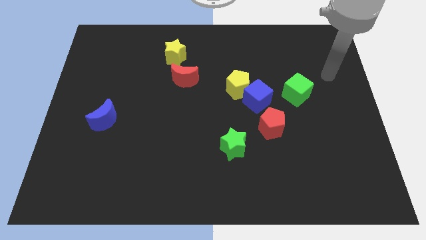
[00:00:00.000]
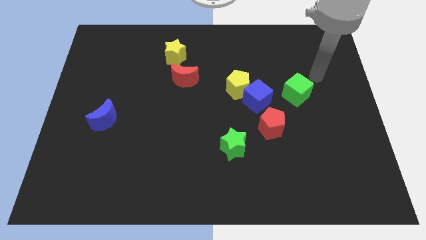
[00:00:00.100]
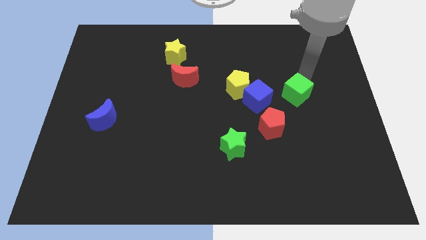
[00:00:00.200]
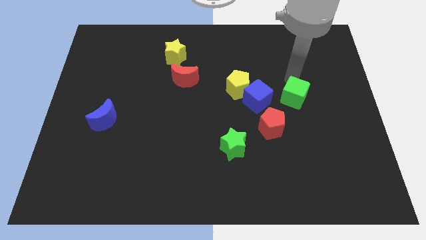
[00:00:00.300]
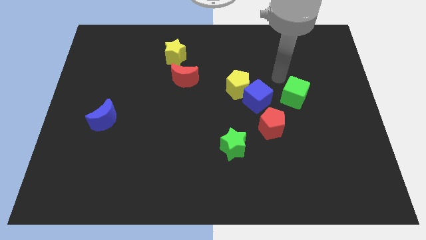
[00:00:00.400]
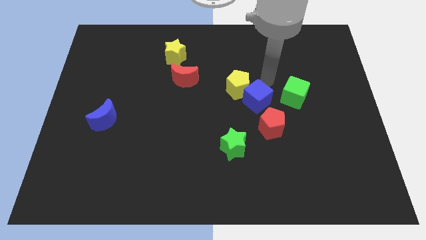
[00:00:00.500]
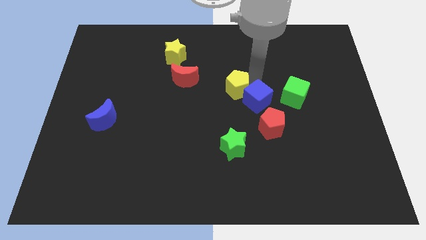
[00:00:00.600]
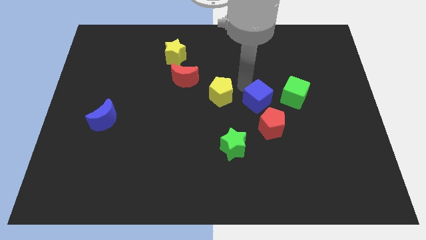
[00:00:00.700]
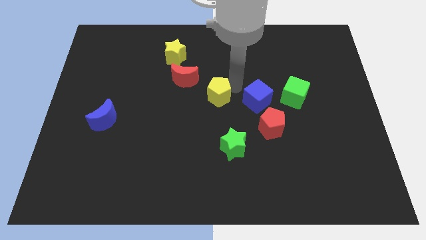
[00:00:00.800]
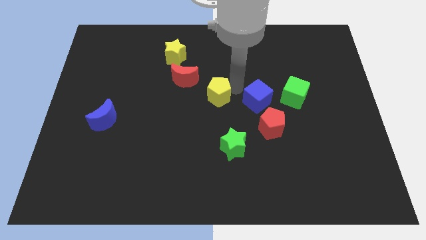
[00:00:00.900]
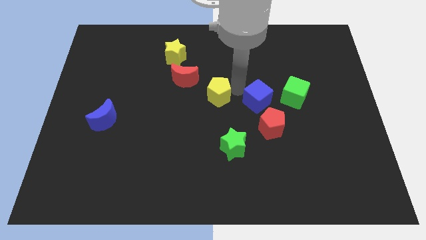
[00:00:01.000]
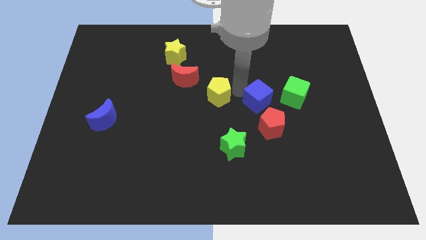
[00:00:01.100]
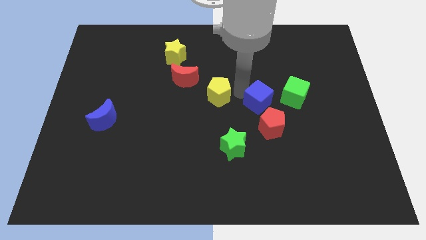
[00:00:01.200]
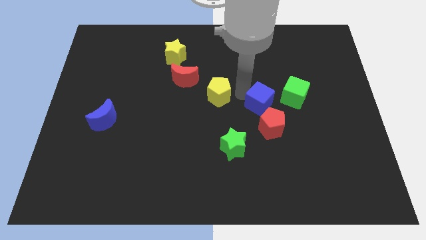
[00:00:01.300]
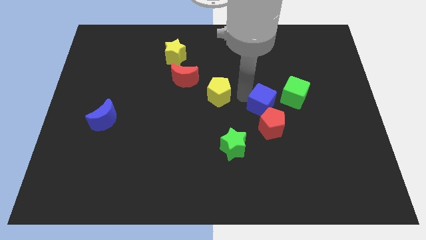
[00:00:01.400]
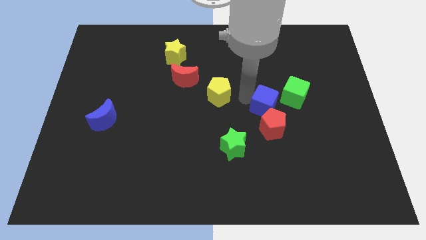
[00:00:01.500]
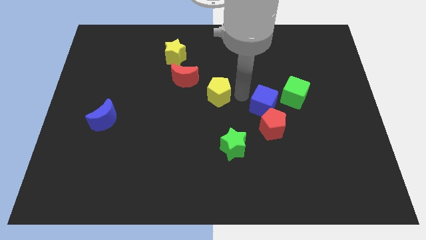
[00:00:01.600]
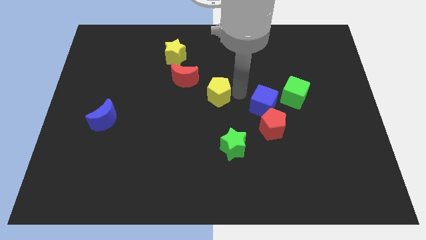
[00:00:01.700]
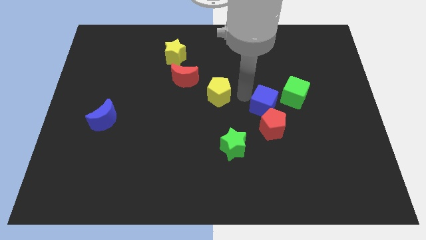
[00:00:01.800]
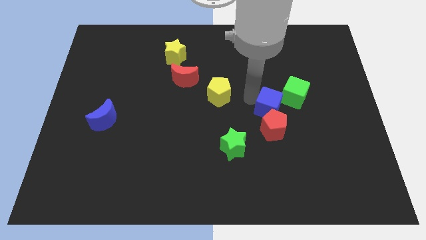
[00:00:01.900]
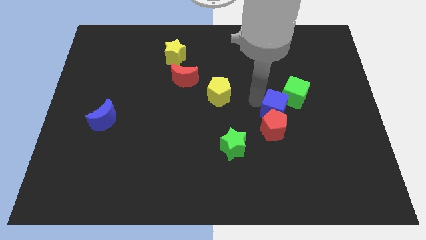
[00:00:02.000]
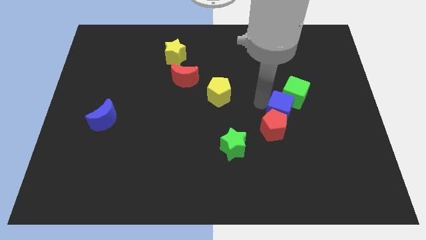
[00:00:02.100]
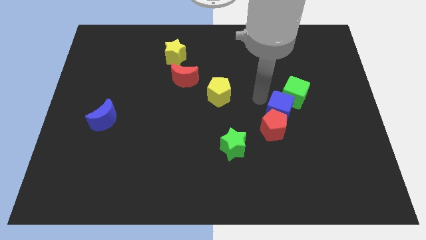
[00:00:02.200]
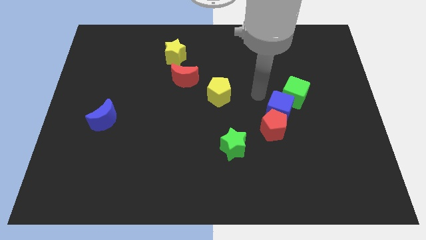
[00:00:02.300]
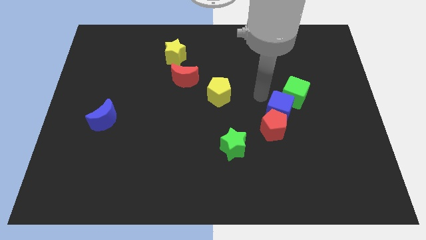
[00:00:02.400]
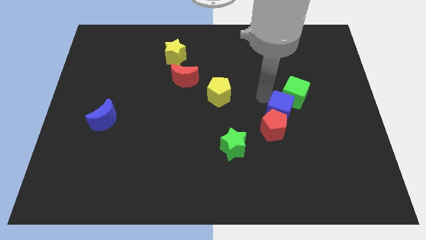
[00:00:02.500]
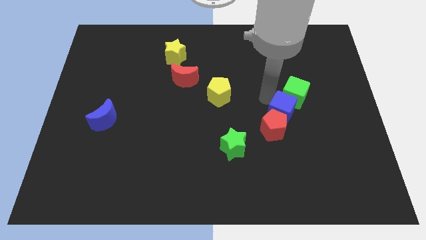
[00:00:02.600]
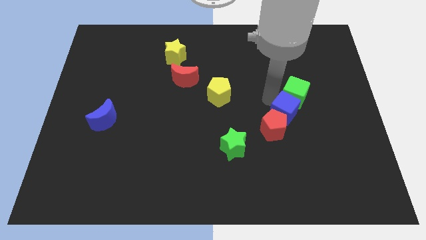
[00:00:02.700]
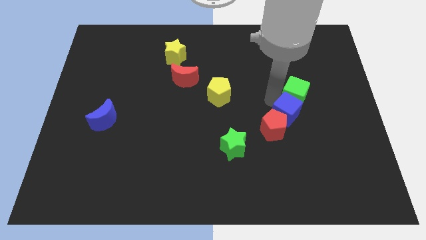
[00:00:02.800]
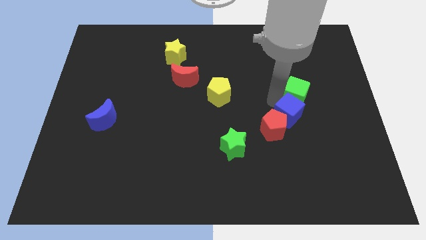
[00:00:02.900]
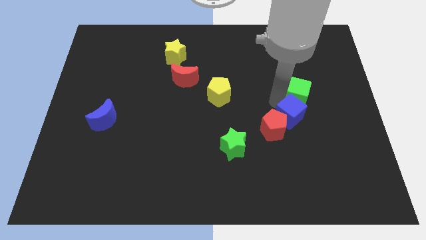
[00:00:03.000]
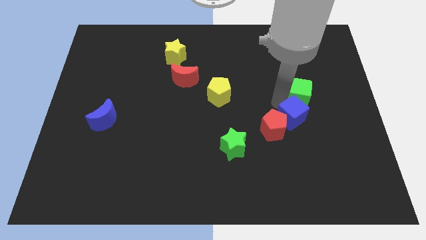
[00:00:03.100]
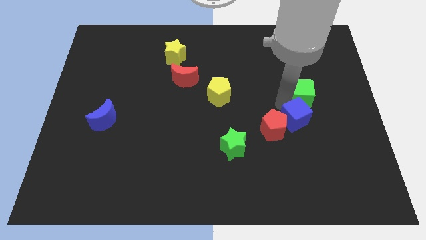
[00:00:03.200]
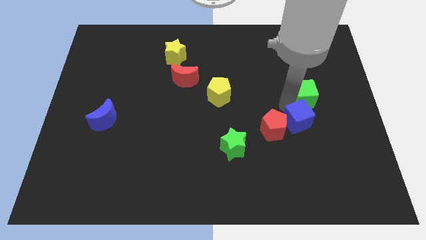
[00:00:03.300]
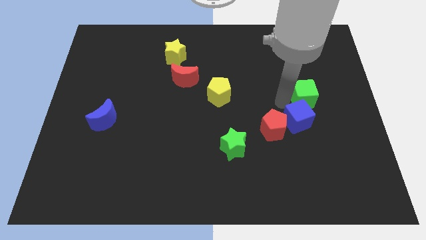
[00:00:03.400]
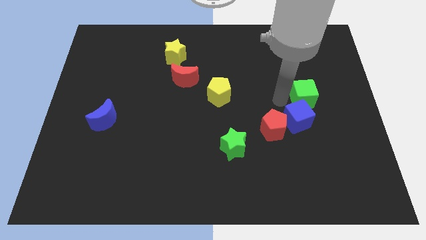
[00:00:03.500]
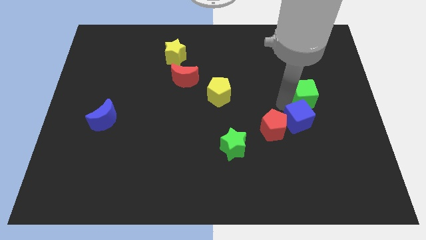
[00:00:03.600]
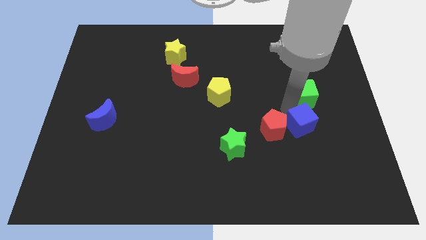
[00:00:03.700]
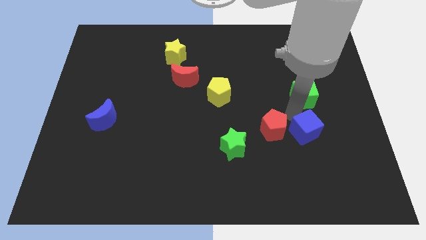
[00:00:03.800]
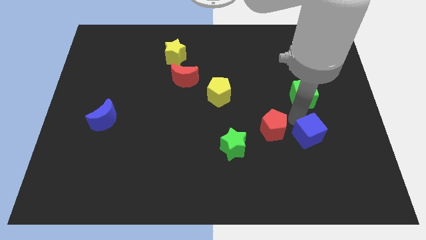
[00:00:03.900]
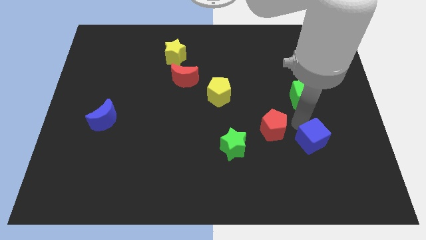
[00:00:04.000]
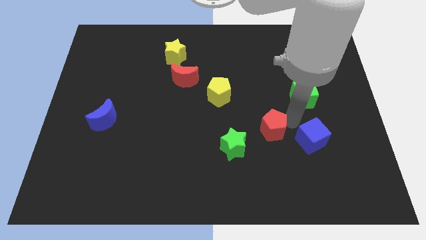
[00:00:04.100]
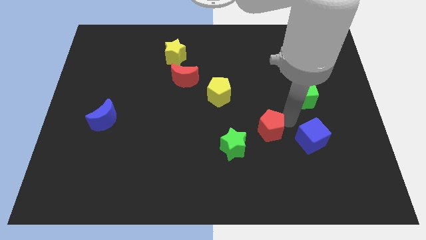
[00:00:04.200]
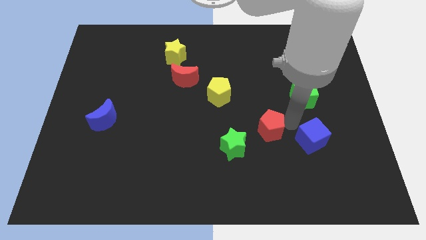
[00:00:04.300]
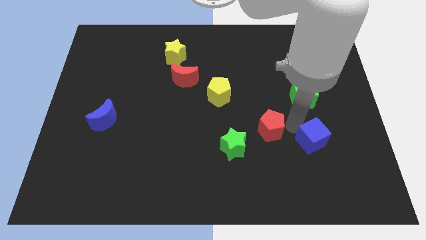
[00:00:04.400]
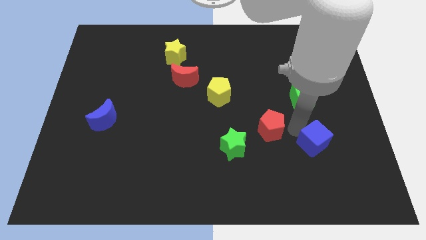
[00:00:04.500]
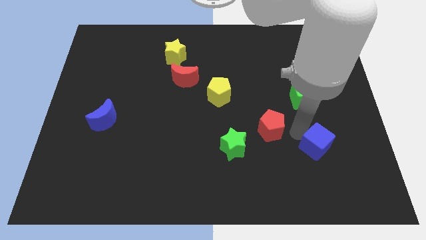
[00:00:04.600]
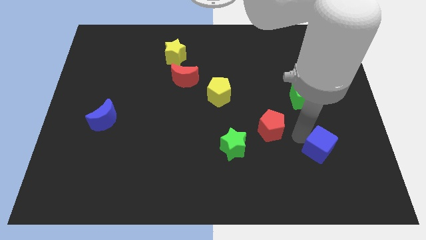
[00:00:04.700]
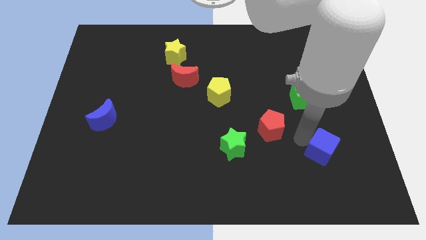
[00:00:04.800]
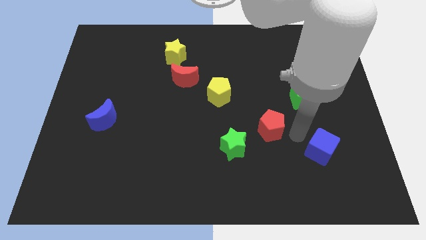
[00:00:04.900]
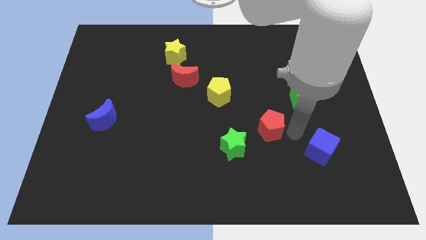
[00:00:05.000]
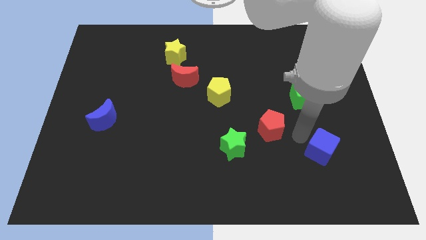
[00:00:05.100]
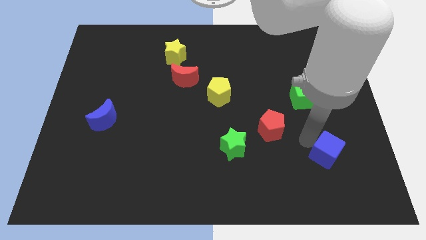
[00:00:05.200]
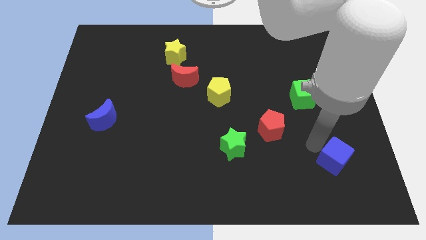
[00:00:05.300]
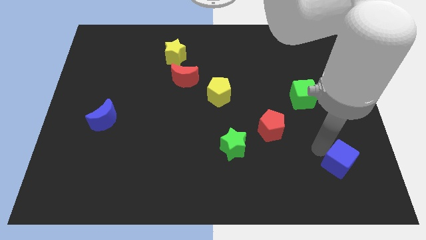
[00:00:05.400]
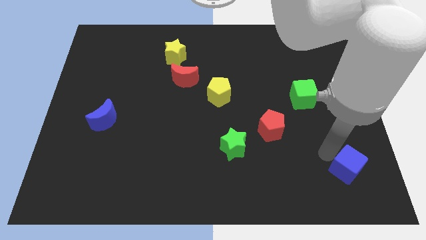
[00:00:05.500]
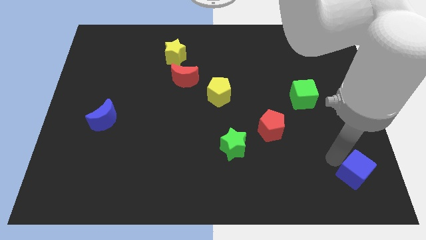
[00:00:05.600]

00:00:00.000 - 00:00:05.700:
put the blue cube to the lower right corner
